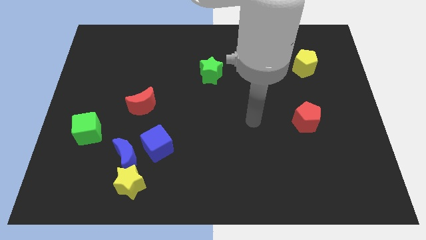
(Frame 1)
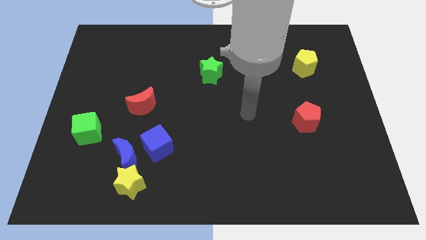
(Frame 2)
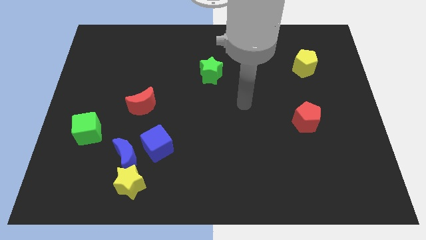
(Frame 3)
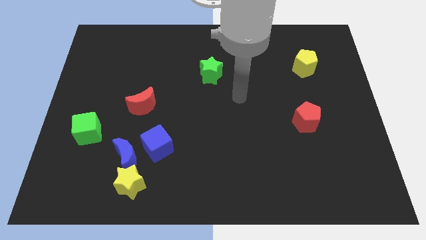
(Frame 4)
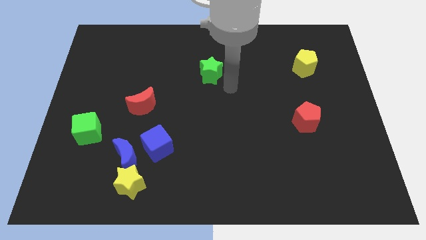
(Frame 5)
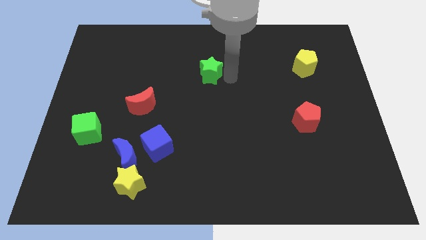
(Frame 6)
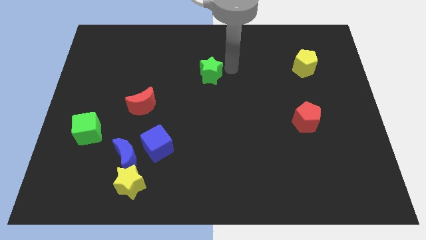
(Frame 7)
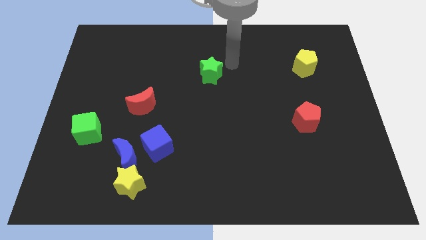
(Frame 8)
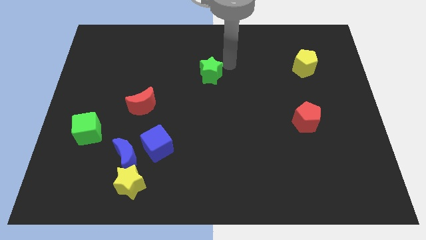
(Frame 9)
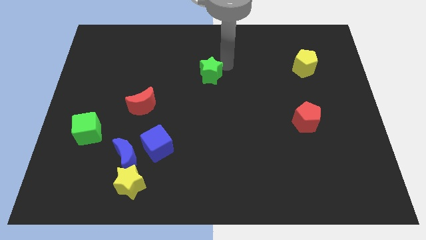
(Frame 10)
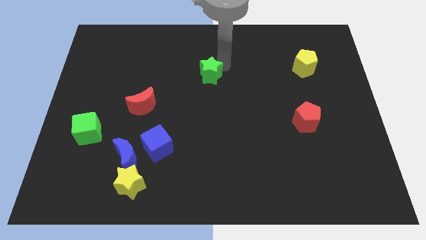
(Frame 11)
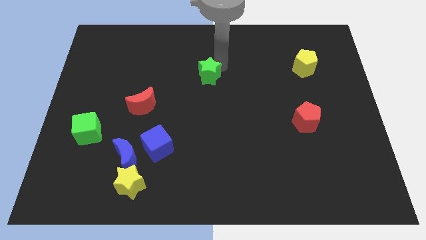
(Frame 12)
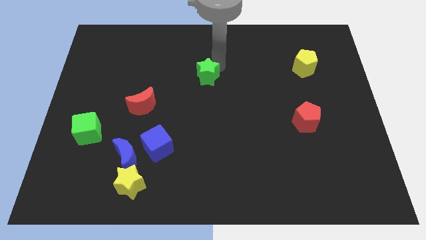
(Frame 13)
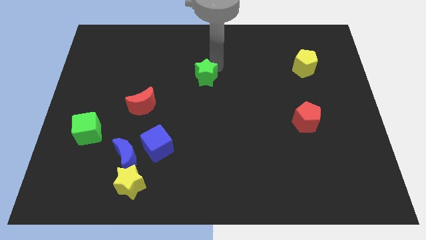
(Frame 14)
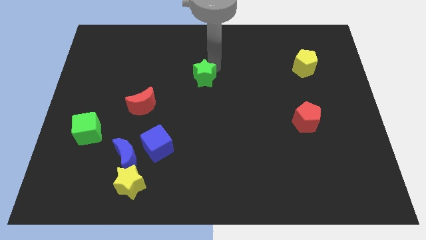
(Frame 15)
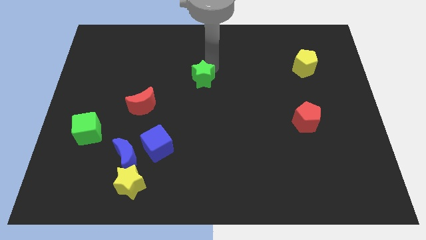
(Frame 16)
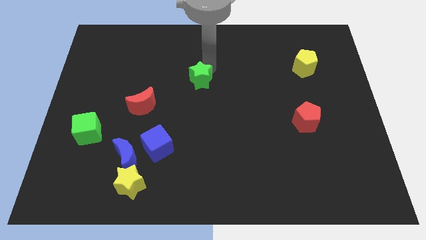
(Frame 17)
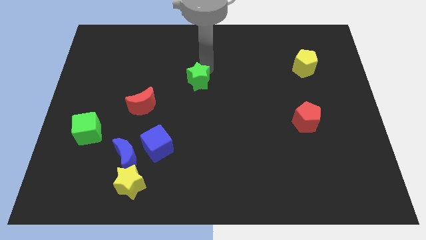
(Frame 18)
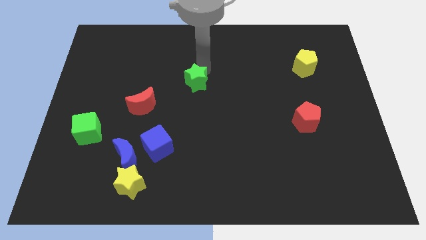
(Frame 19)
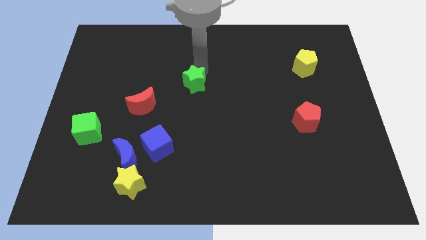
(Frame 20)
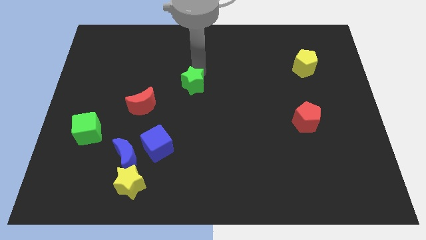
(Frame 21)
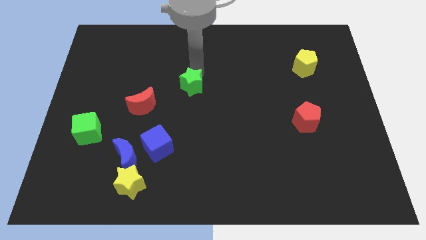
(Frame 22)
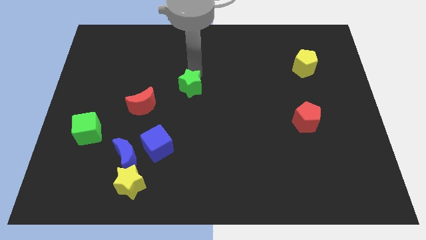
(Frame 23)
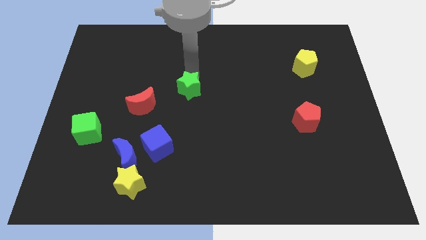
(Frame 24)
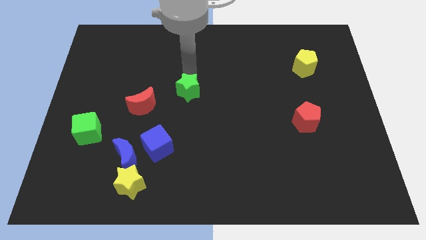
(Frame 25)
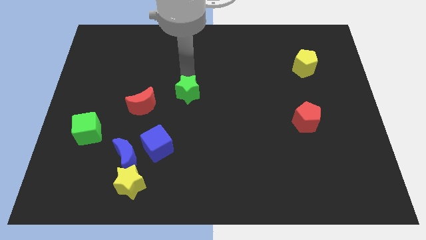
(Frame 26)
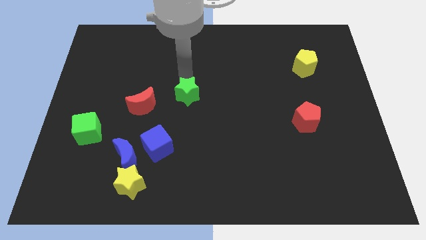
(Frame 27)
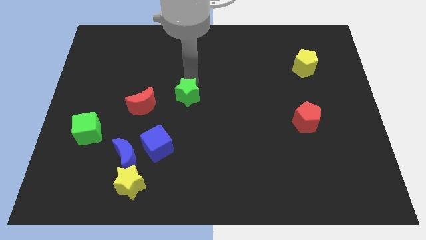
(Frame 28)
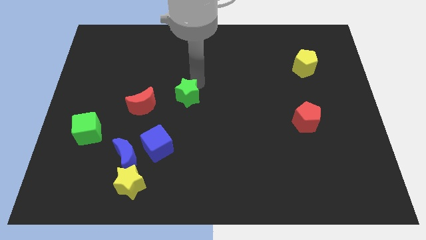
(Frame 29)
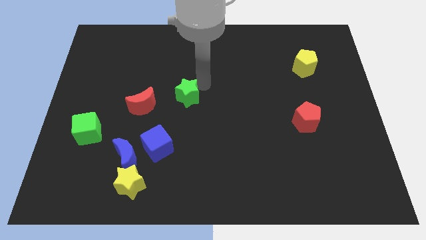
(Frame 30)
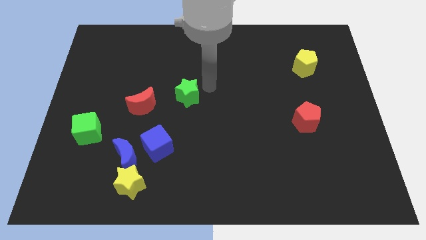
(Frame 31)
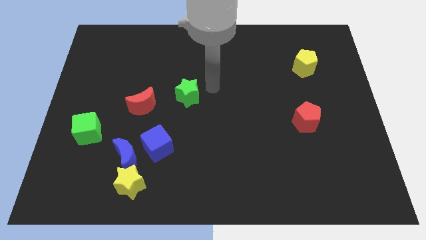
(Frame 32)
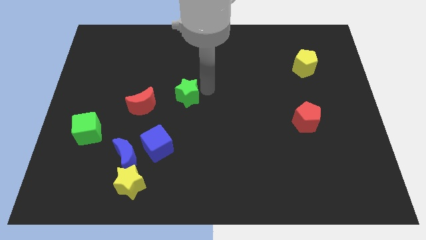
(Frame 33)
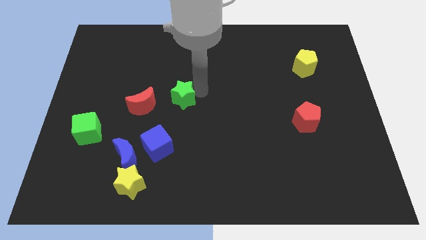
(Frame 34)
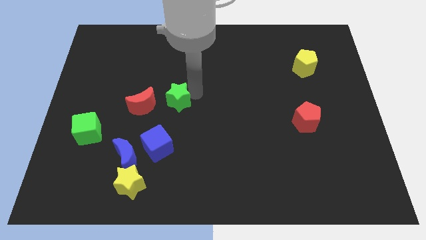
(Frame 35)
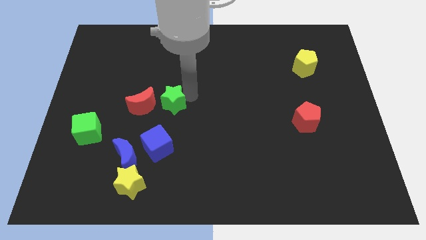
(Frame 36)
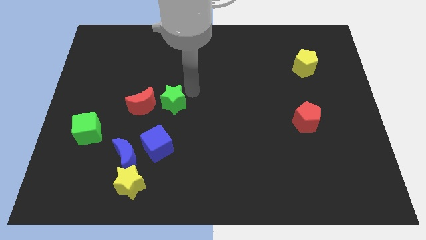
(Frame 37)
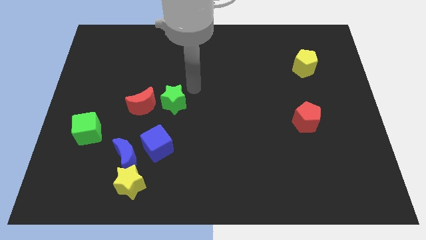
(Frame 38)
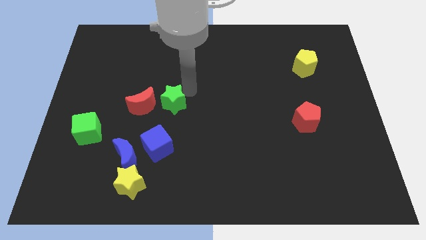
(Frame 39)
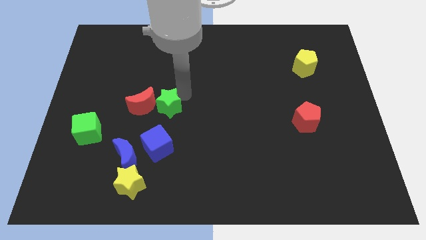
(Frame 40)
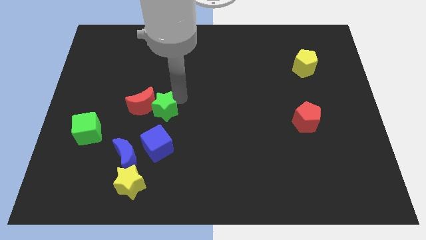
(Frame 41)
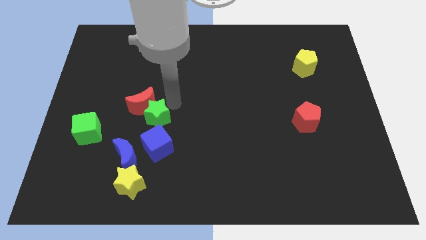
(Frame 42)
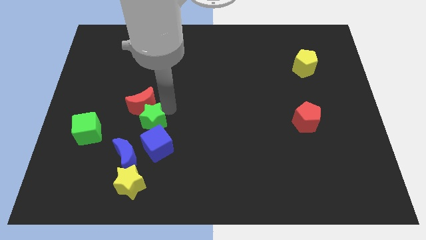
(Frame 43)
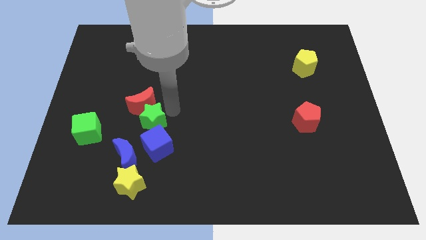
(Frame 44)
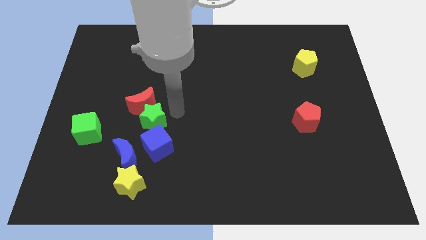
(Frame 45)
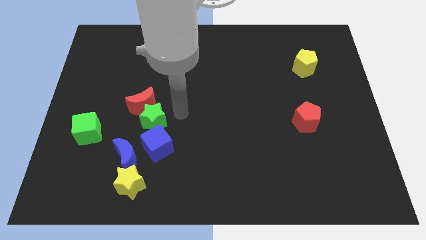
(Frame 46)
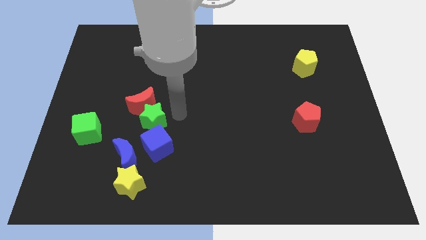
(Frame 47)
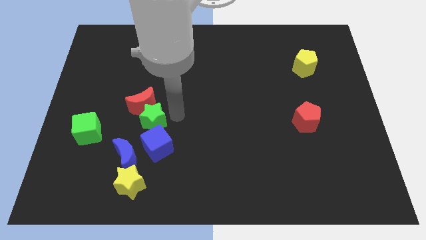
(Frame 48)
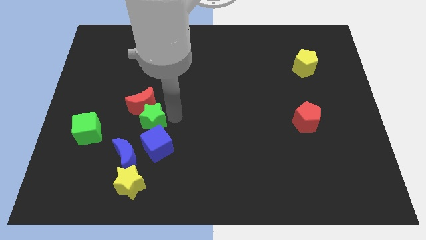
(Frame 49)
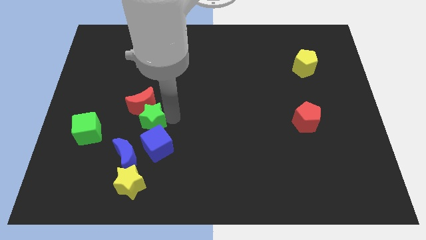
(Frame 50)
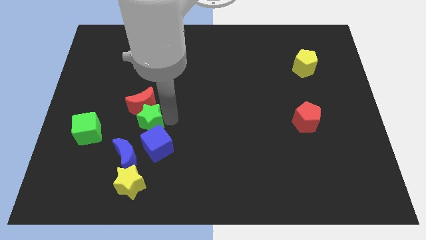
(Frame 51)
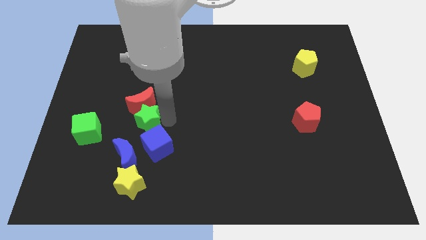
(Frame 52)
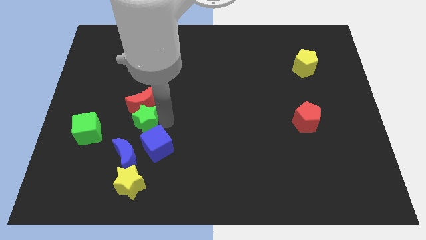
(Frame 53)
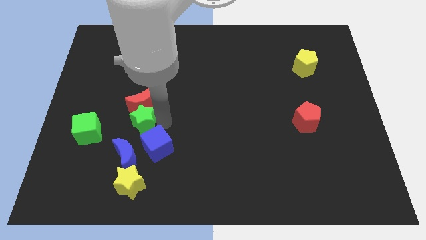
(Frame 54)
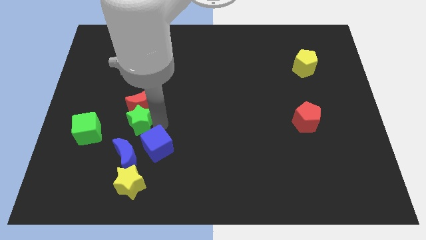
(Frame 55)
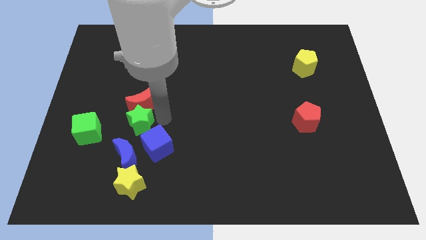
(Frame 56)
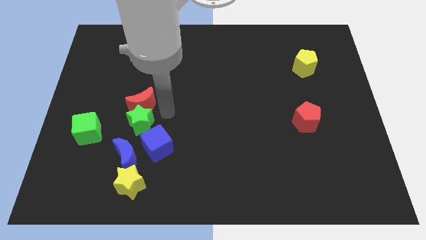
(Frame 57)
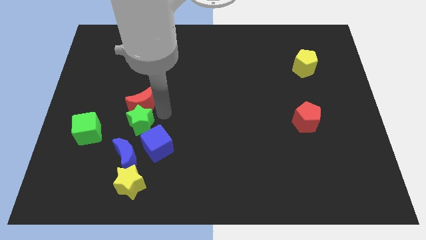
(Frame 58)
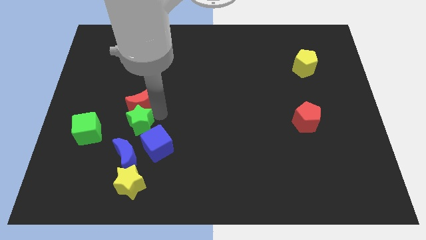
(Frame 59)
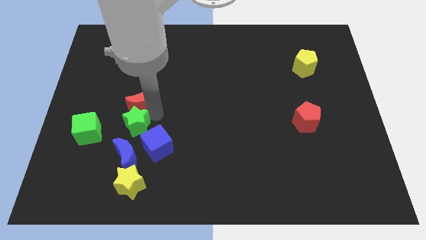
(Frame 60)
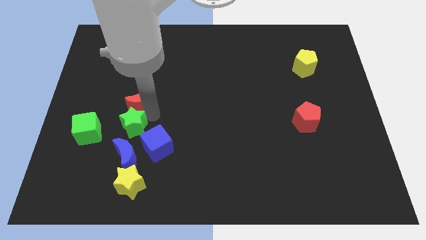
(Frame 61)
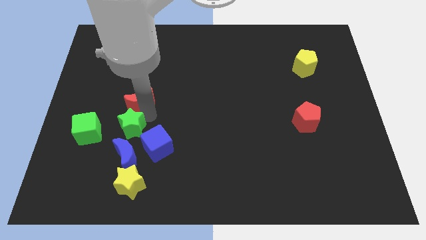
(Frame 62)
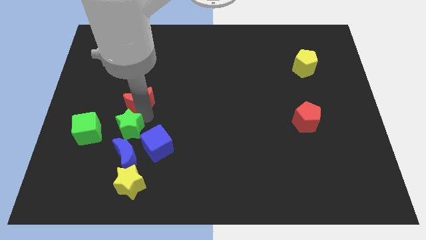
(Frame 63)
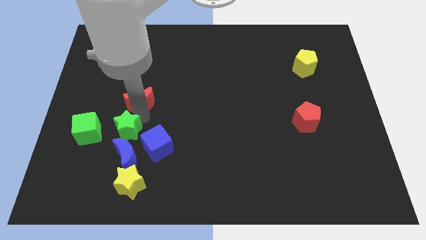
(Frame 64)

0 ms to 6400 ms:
push the green star to the top left of the blue moon

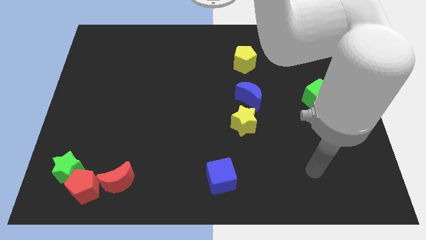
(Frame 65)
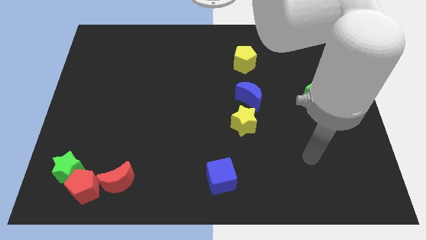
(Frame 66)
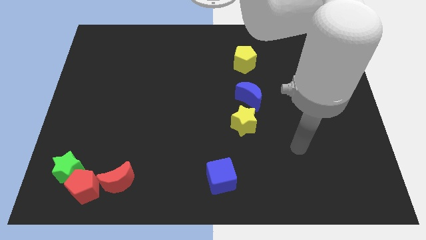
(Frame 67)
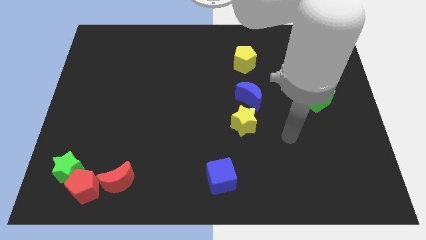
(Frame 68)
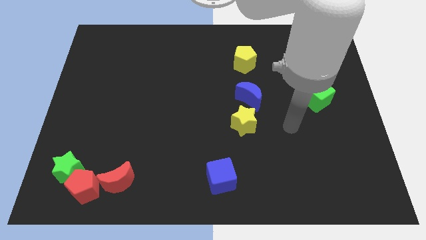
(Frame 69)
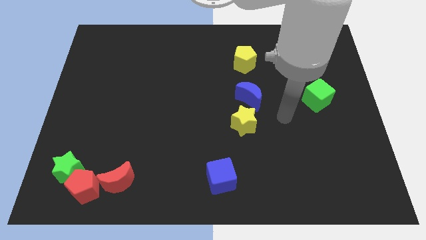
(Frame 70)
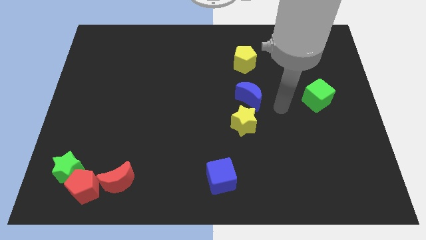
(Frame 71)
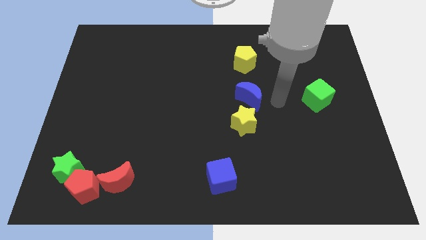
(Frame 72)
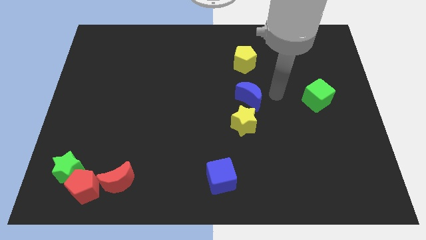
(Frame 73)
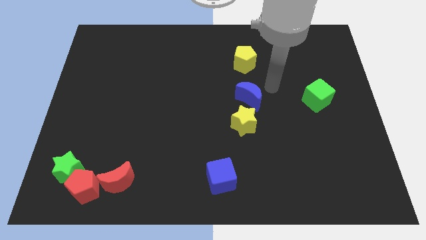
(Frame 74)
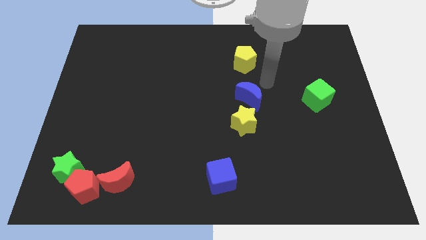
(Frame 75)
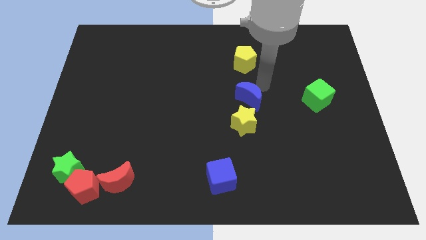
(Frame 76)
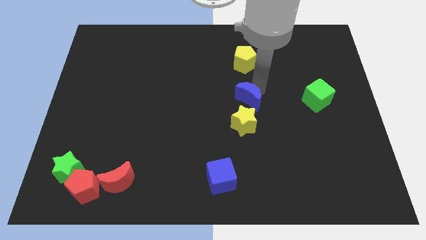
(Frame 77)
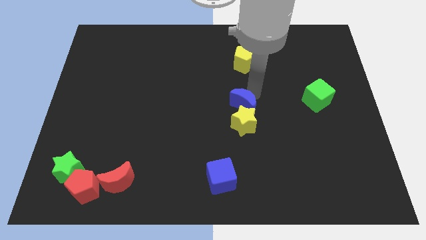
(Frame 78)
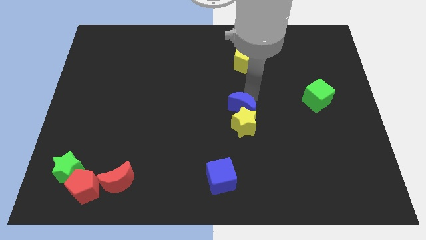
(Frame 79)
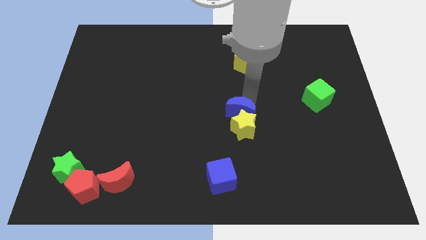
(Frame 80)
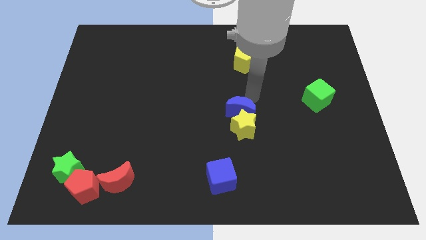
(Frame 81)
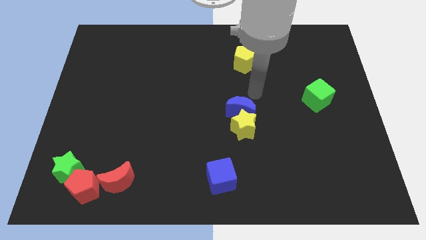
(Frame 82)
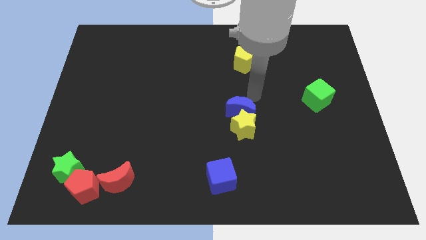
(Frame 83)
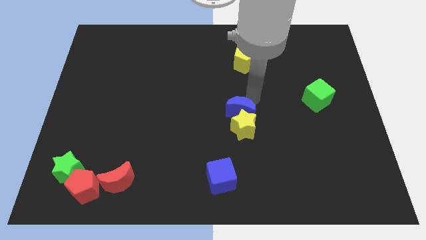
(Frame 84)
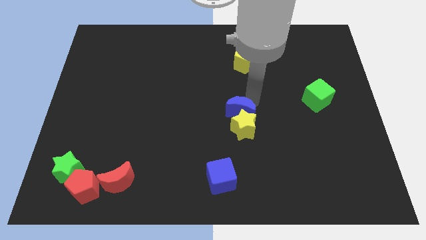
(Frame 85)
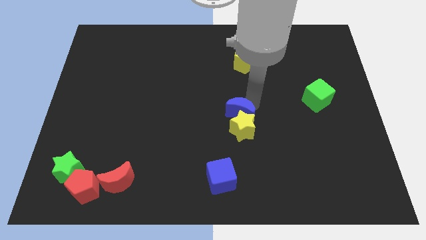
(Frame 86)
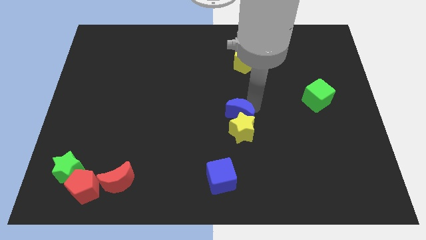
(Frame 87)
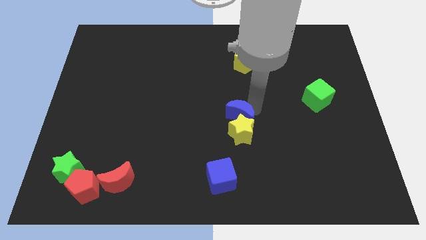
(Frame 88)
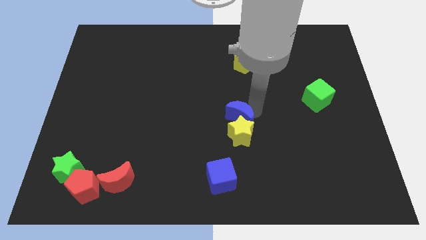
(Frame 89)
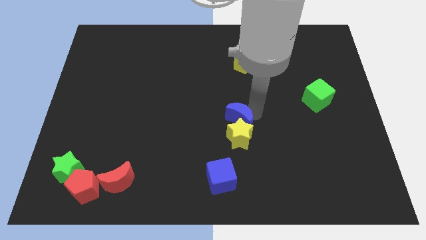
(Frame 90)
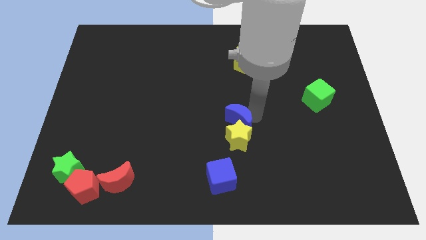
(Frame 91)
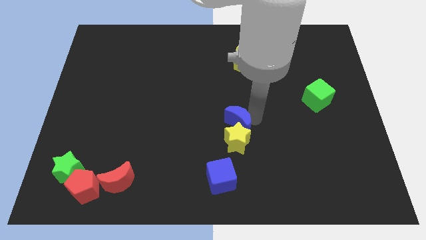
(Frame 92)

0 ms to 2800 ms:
move the blue moon above the blue cube
